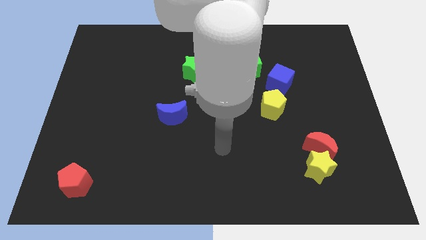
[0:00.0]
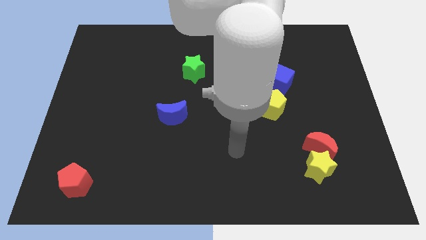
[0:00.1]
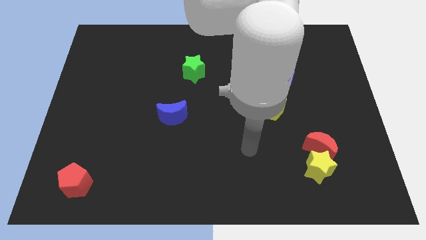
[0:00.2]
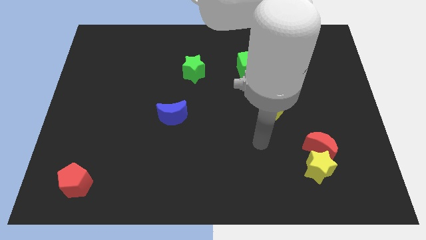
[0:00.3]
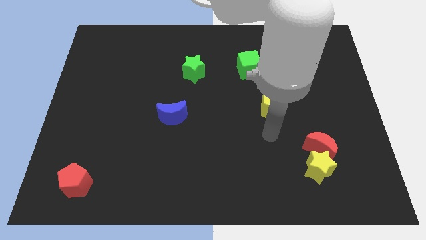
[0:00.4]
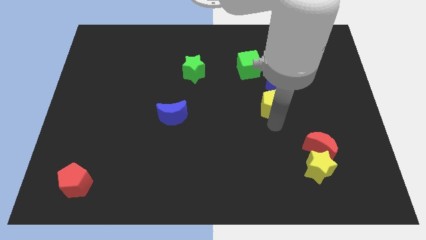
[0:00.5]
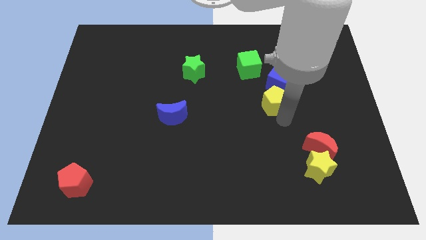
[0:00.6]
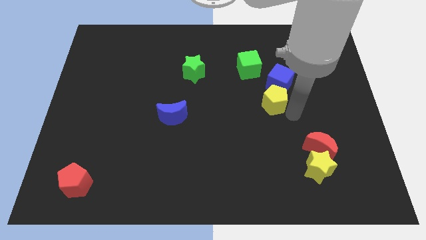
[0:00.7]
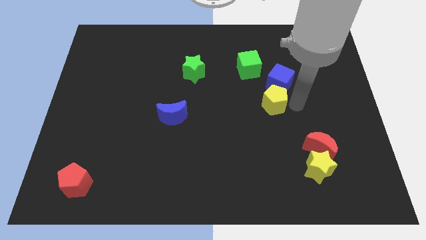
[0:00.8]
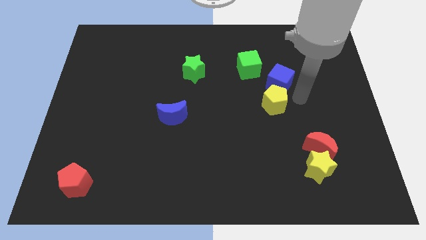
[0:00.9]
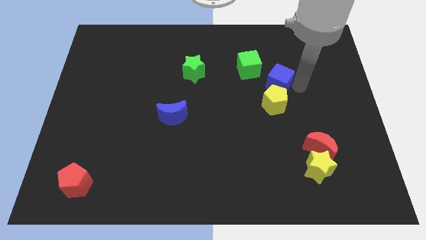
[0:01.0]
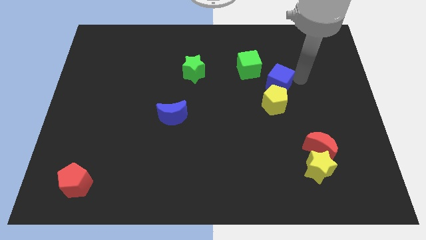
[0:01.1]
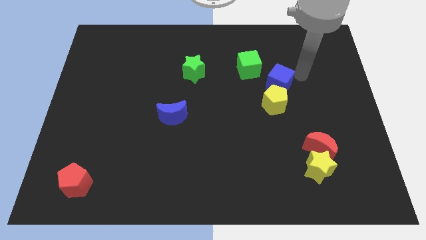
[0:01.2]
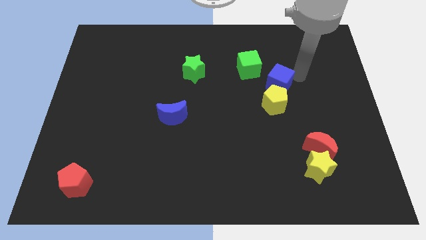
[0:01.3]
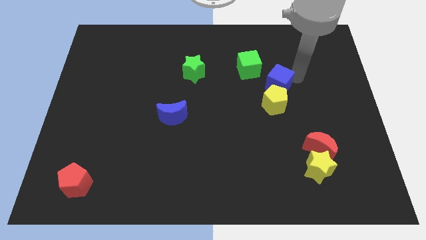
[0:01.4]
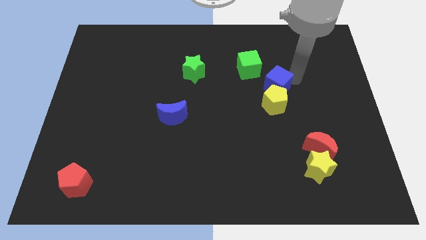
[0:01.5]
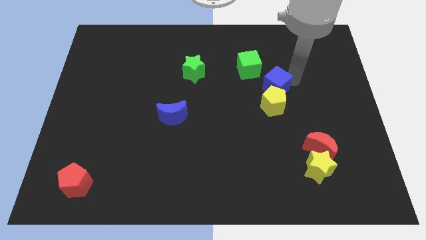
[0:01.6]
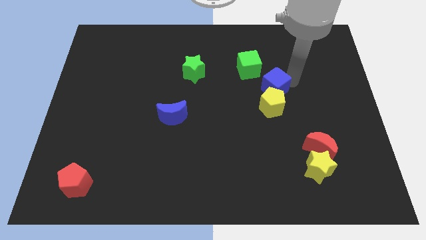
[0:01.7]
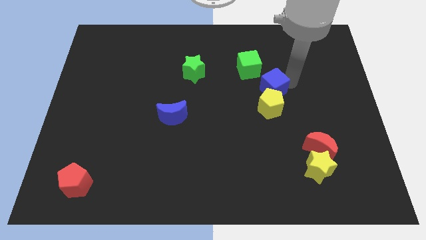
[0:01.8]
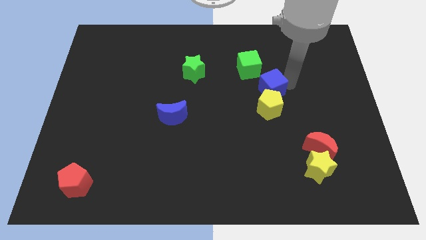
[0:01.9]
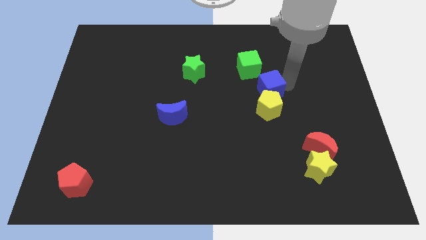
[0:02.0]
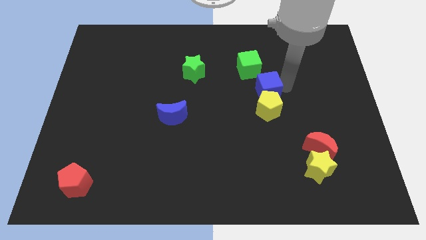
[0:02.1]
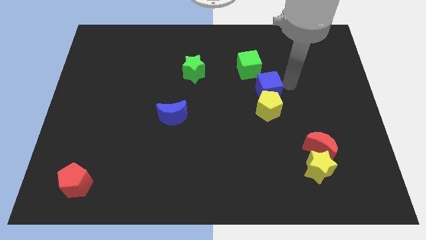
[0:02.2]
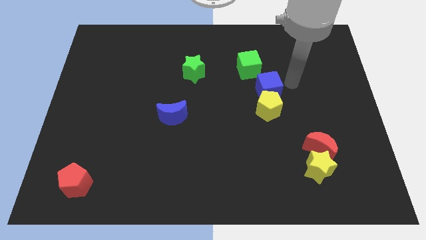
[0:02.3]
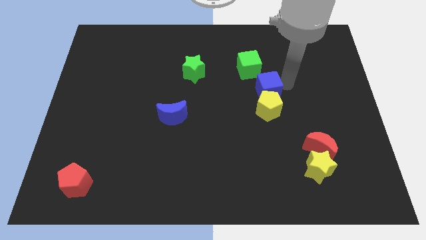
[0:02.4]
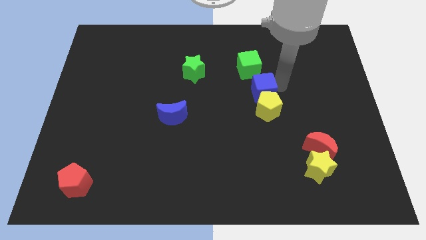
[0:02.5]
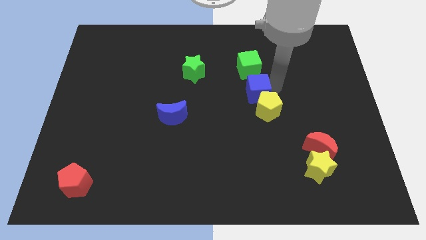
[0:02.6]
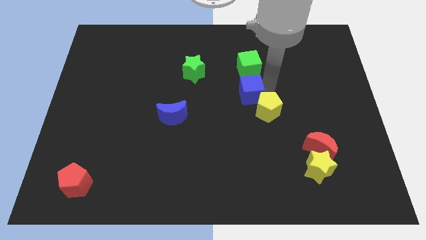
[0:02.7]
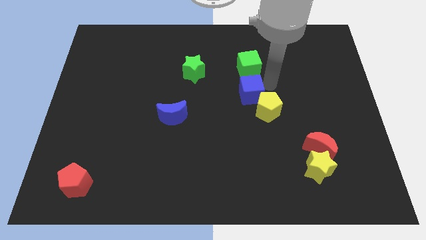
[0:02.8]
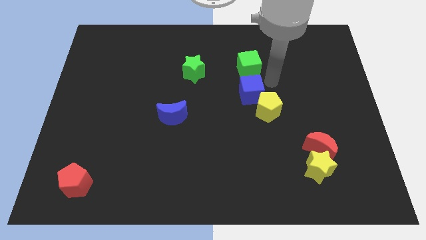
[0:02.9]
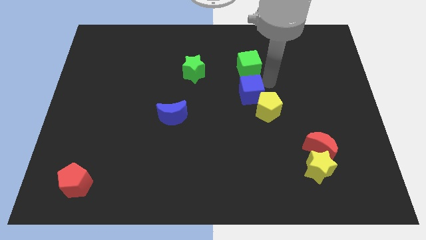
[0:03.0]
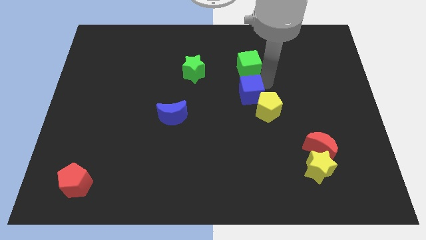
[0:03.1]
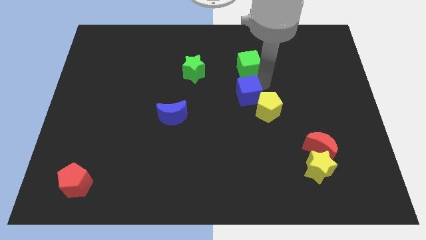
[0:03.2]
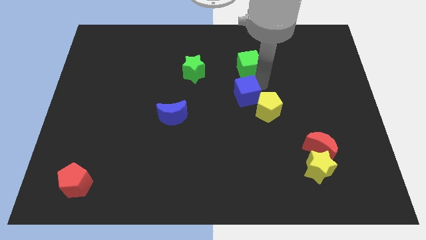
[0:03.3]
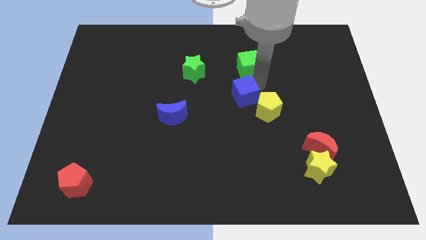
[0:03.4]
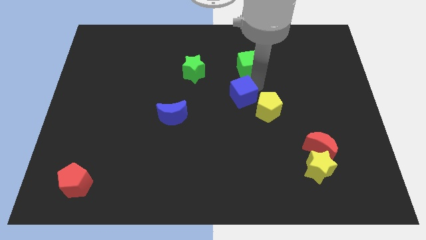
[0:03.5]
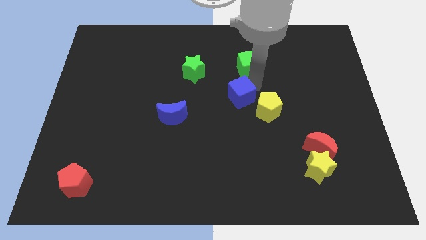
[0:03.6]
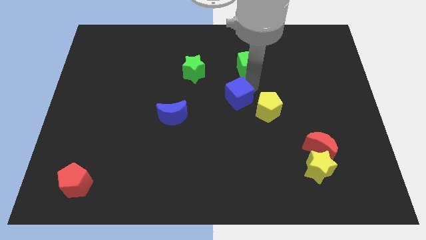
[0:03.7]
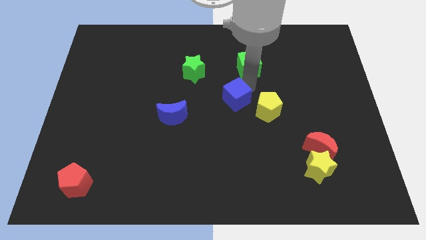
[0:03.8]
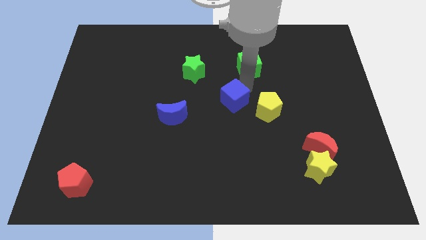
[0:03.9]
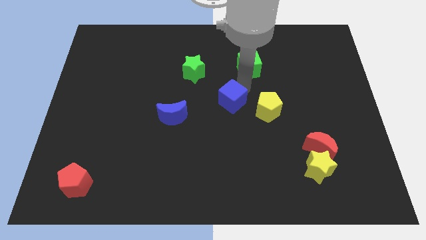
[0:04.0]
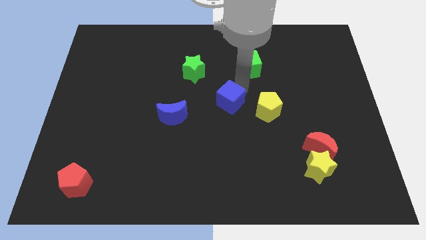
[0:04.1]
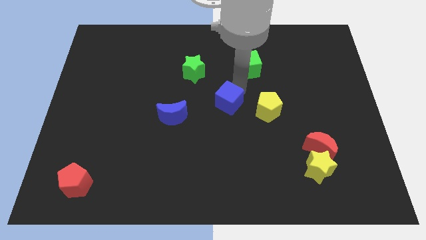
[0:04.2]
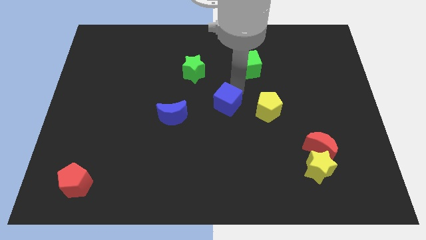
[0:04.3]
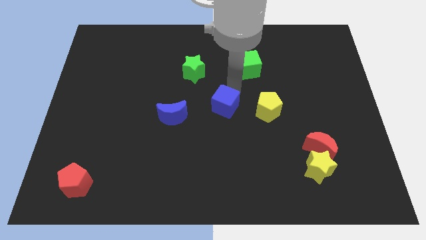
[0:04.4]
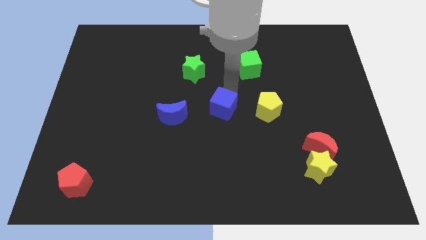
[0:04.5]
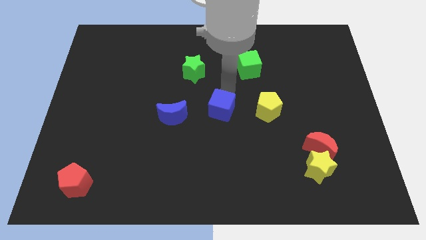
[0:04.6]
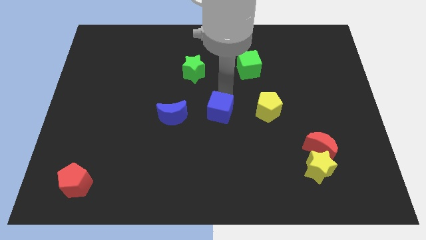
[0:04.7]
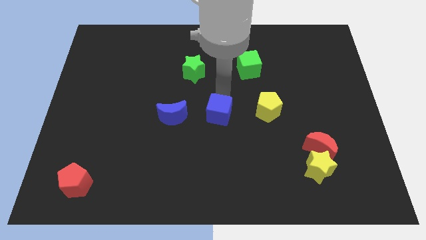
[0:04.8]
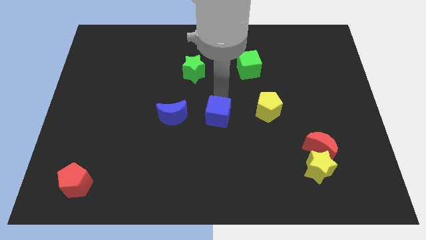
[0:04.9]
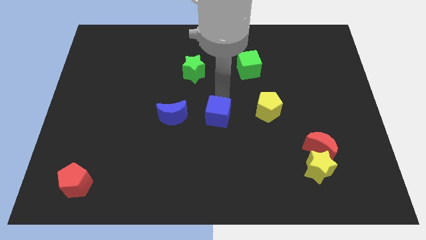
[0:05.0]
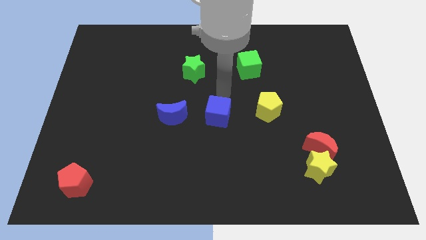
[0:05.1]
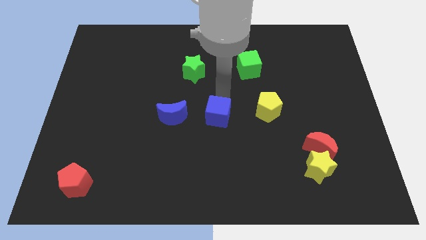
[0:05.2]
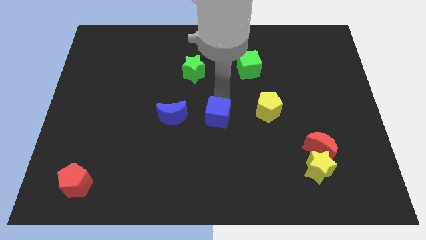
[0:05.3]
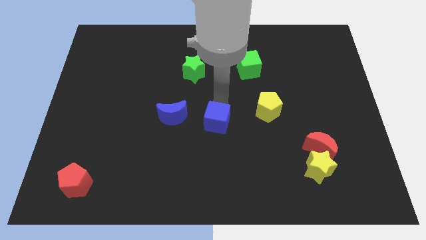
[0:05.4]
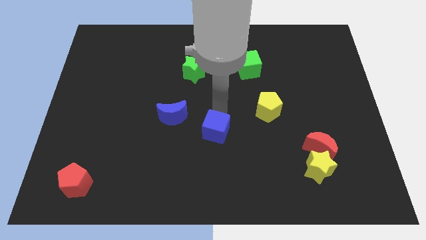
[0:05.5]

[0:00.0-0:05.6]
push the blue cube diagonally downwards and to the left

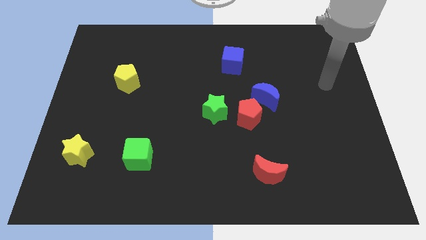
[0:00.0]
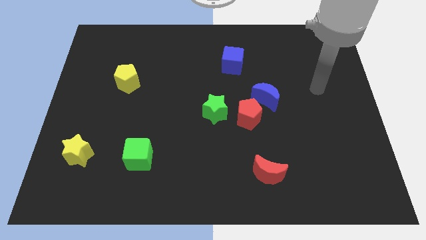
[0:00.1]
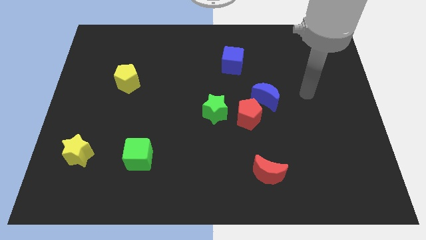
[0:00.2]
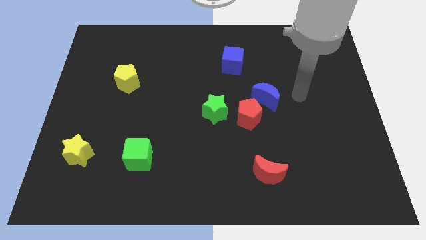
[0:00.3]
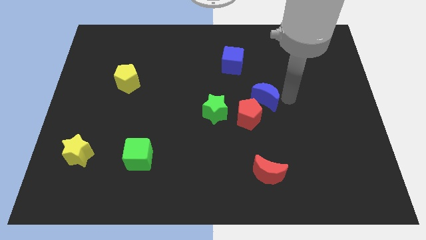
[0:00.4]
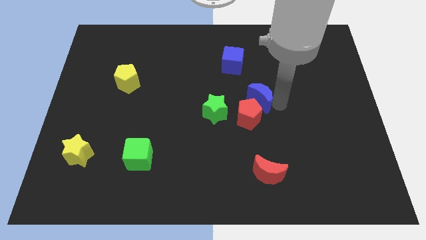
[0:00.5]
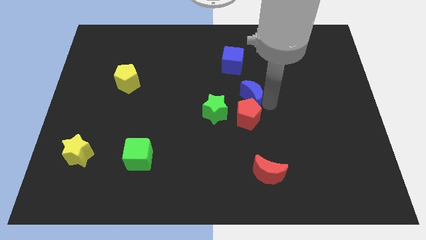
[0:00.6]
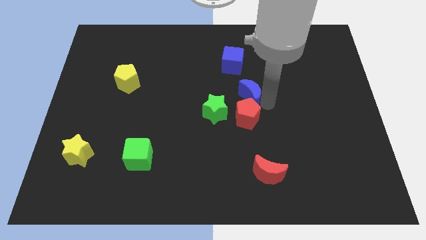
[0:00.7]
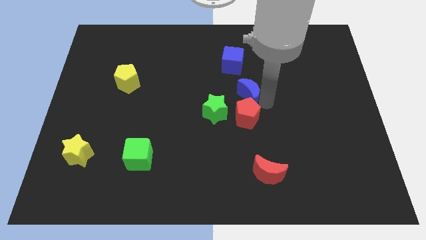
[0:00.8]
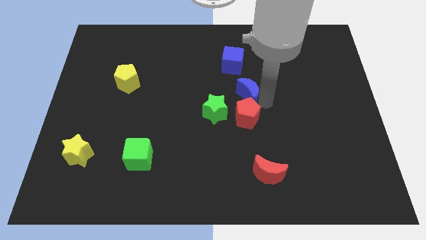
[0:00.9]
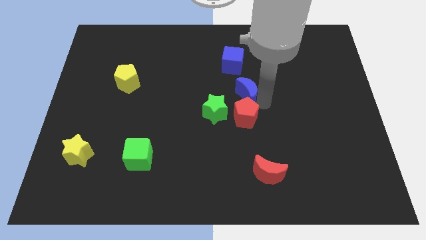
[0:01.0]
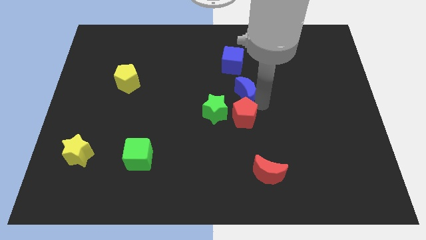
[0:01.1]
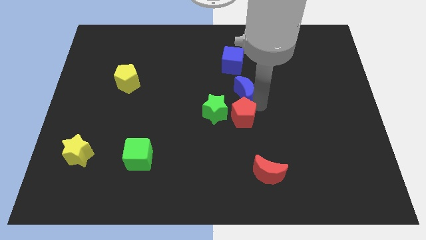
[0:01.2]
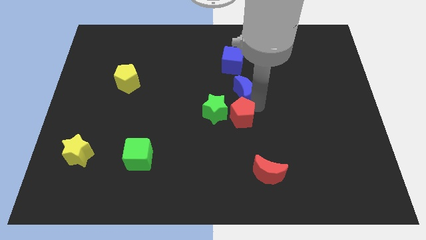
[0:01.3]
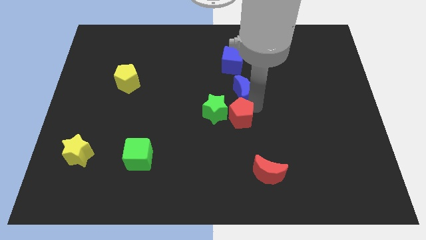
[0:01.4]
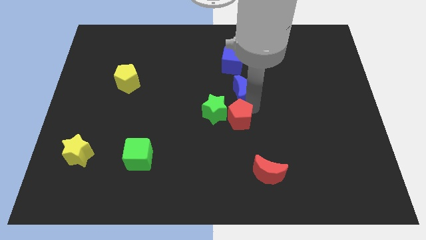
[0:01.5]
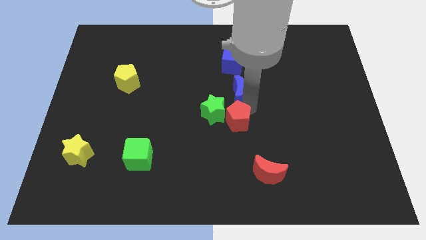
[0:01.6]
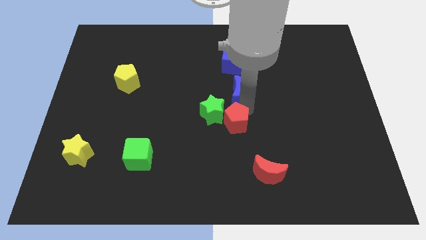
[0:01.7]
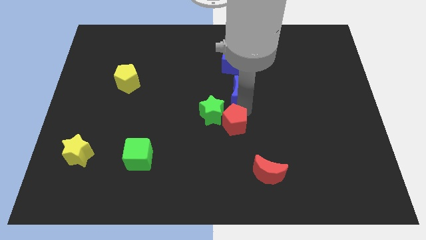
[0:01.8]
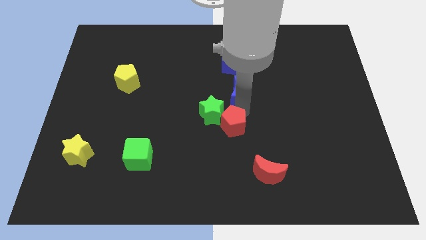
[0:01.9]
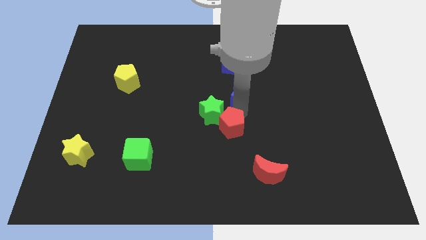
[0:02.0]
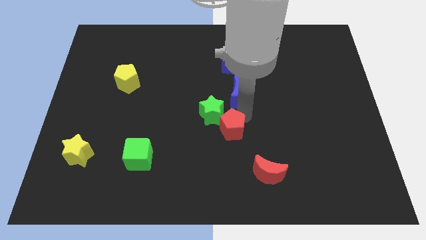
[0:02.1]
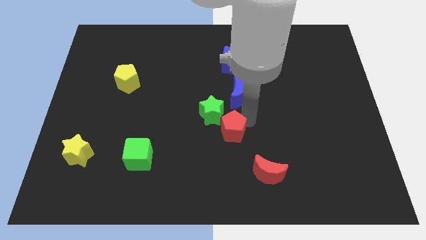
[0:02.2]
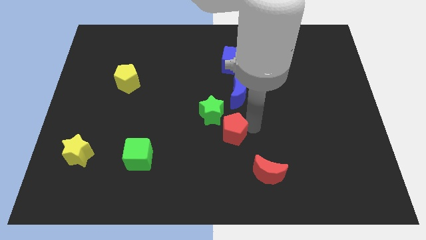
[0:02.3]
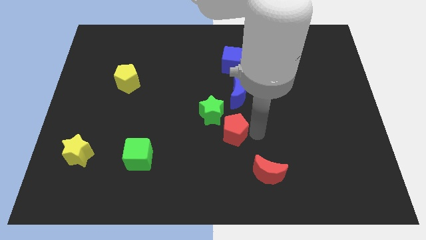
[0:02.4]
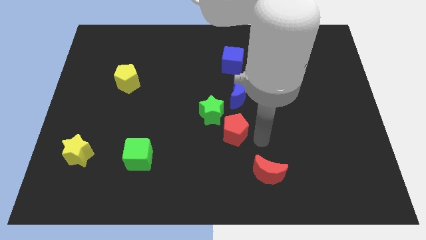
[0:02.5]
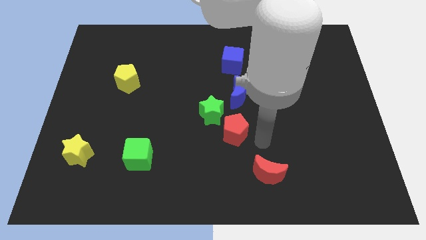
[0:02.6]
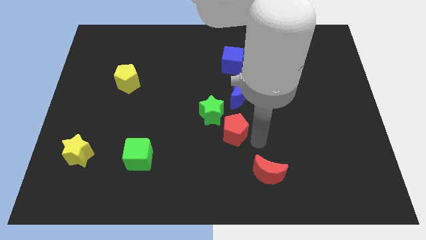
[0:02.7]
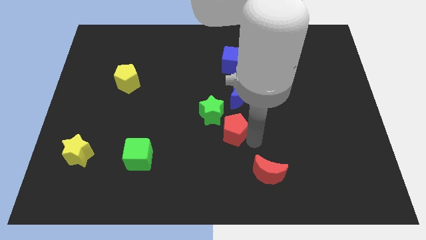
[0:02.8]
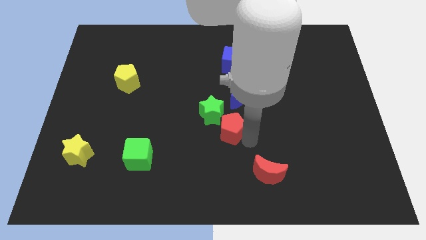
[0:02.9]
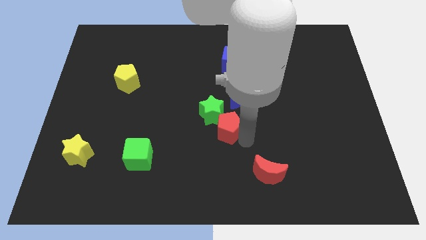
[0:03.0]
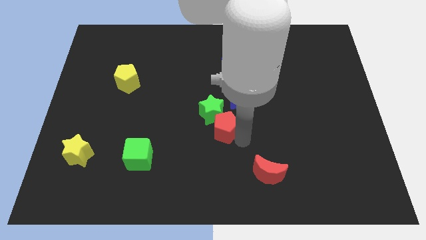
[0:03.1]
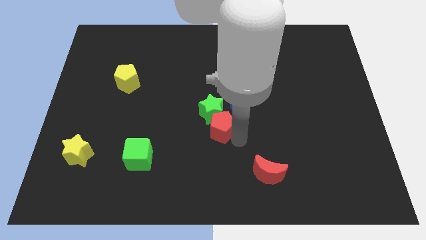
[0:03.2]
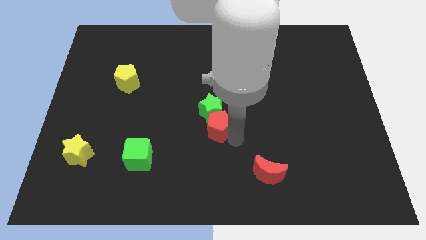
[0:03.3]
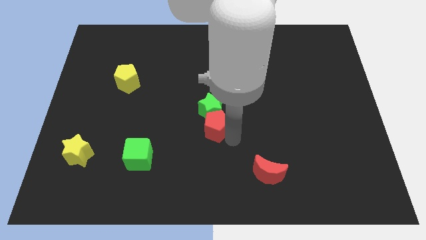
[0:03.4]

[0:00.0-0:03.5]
move the red pentagon to the left a little
